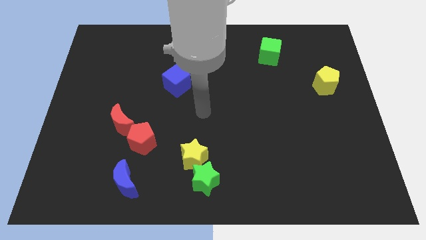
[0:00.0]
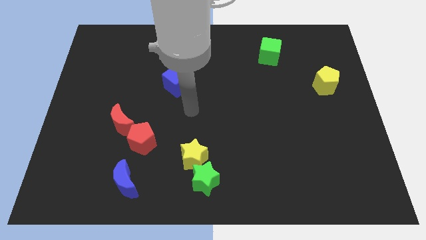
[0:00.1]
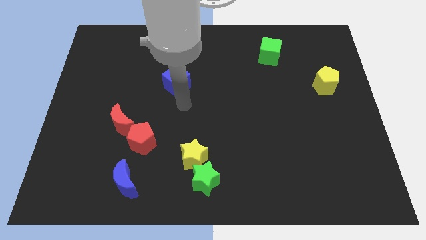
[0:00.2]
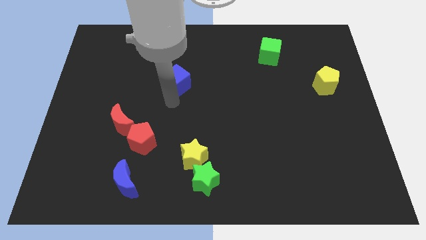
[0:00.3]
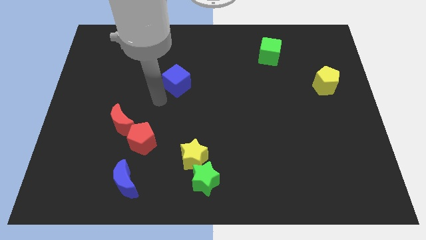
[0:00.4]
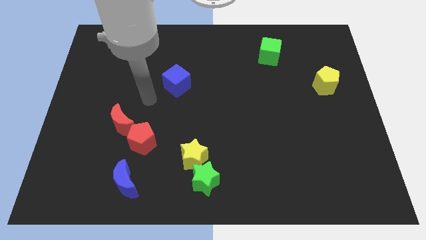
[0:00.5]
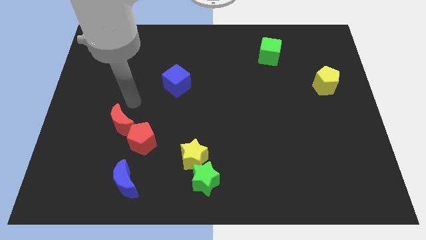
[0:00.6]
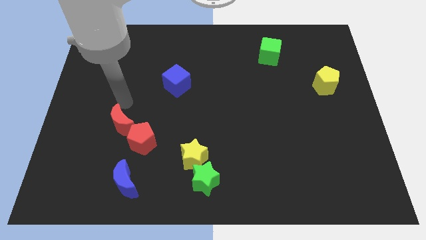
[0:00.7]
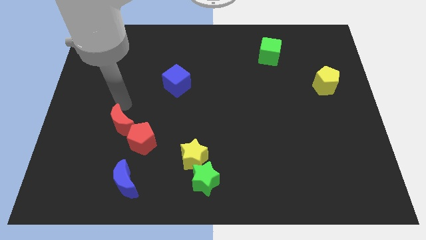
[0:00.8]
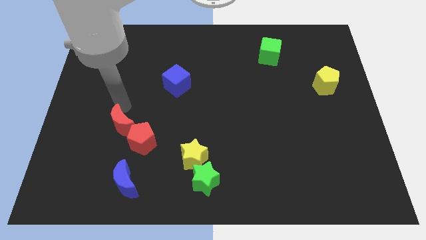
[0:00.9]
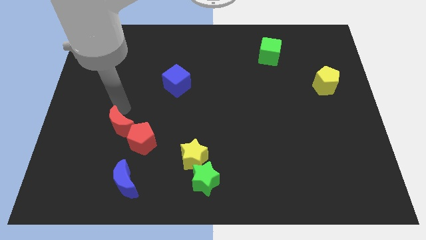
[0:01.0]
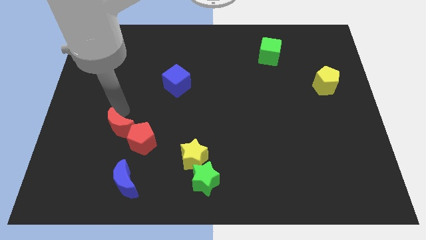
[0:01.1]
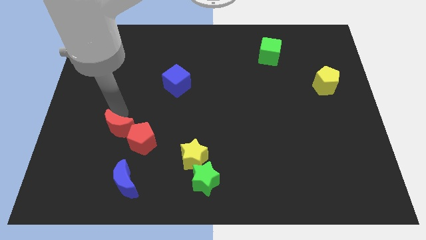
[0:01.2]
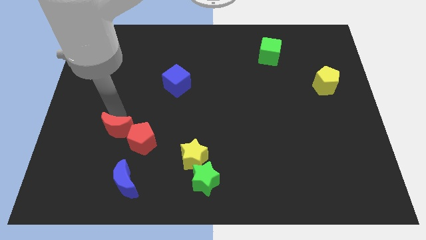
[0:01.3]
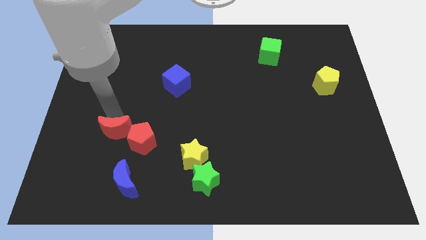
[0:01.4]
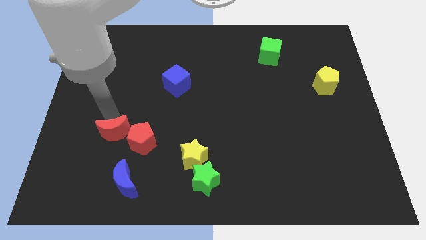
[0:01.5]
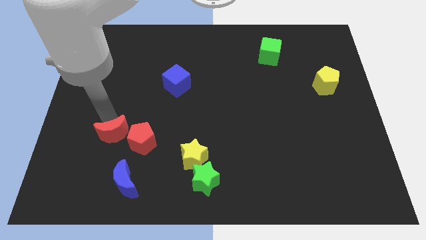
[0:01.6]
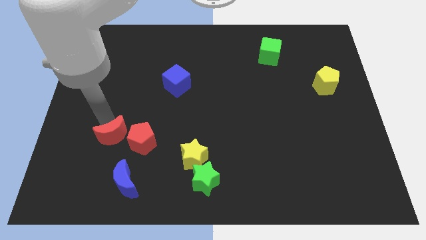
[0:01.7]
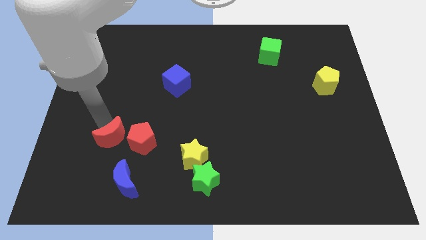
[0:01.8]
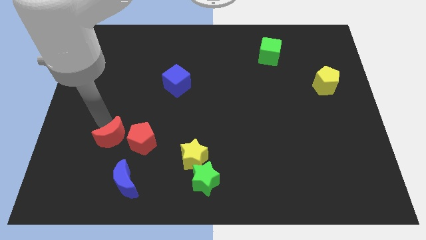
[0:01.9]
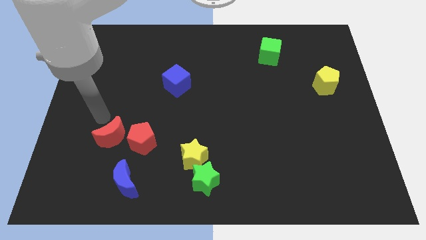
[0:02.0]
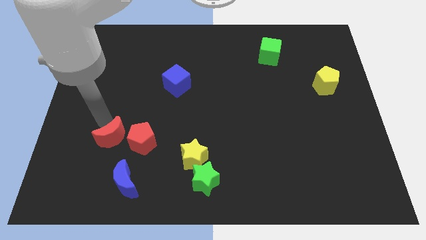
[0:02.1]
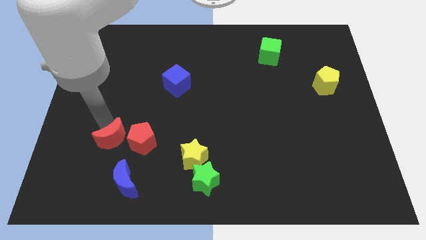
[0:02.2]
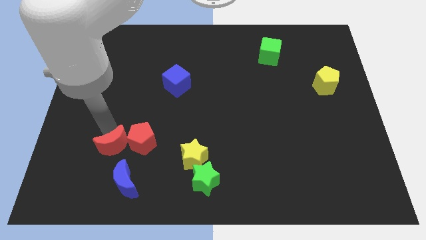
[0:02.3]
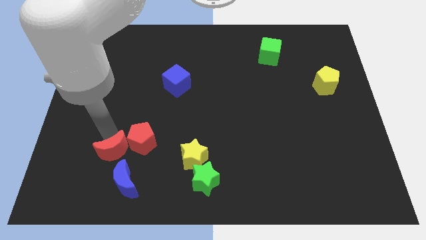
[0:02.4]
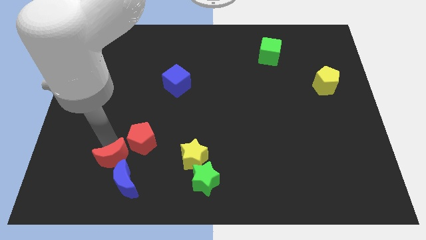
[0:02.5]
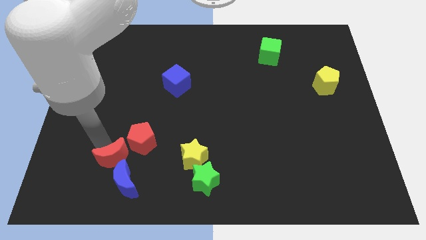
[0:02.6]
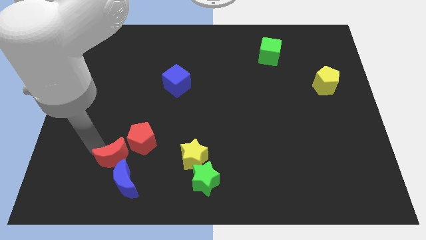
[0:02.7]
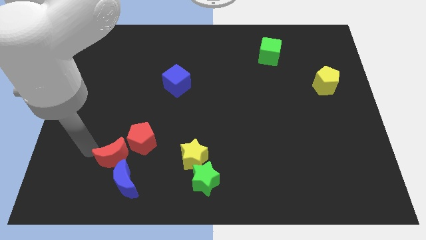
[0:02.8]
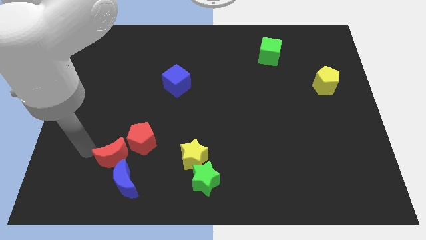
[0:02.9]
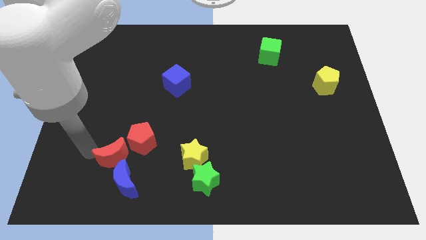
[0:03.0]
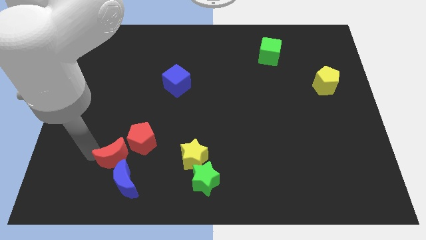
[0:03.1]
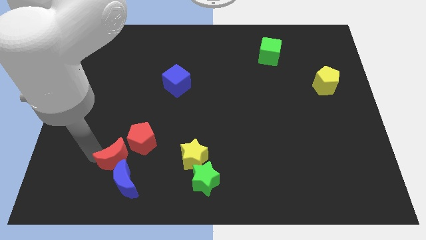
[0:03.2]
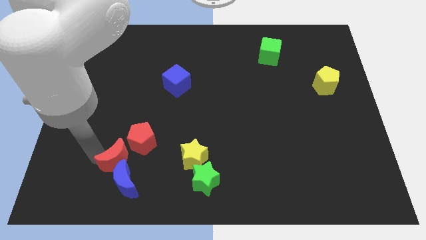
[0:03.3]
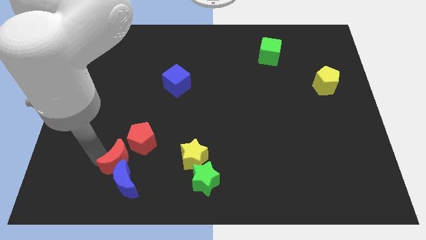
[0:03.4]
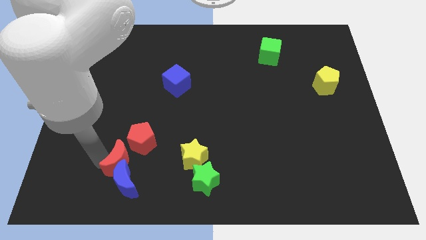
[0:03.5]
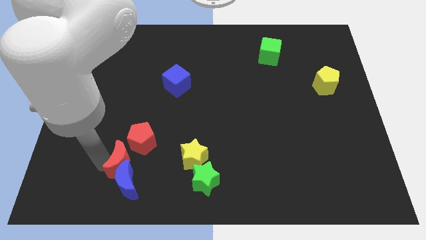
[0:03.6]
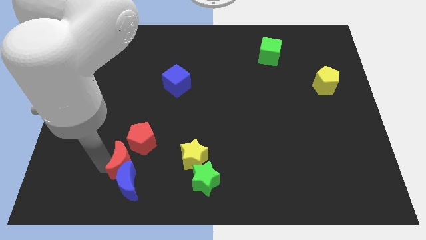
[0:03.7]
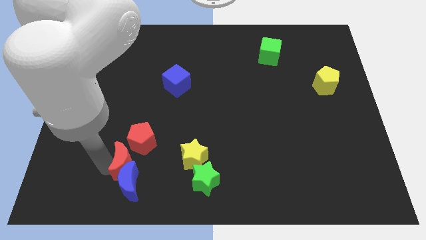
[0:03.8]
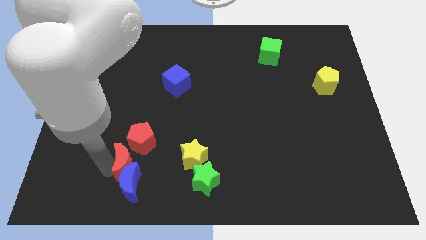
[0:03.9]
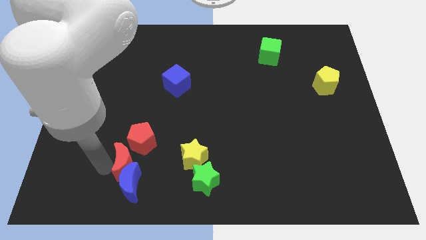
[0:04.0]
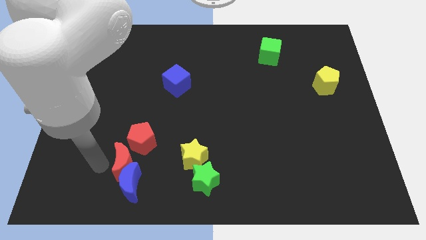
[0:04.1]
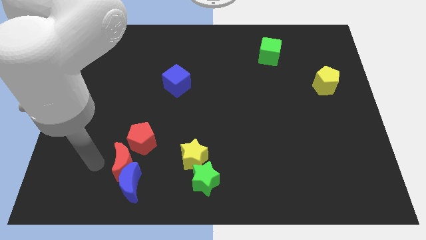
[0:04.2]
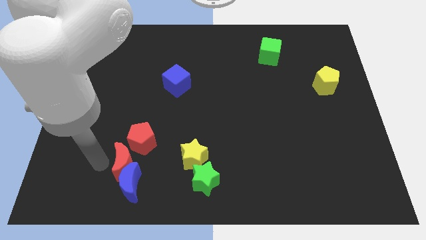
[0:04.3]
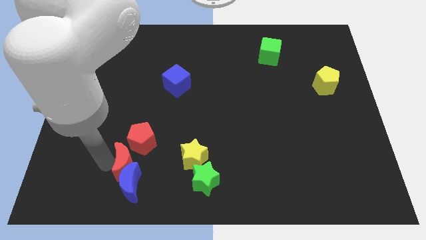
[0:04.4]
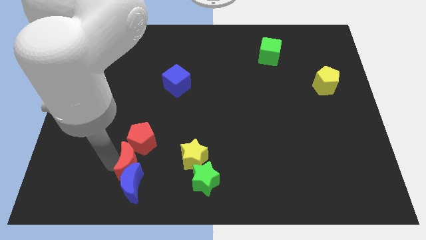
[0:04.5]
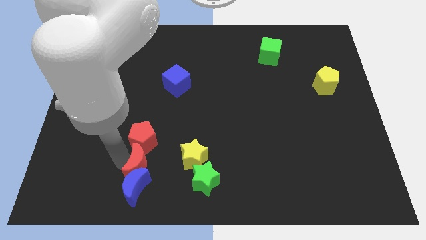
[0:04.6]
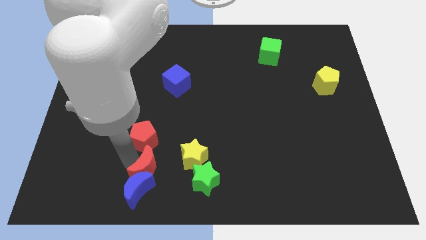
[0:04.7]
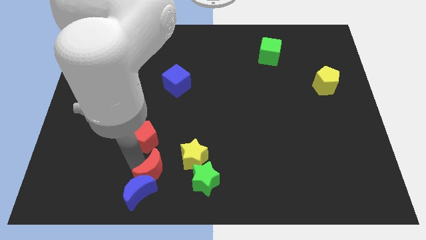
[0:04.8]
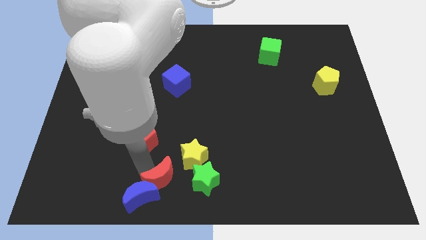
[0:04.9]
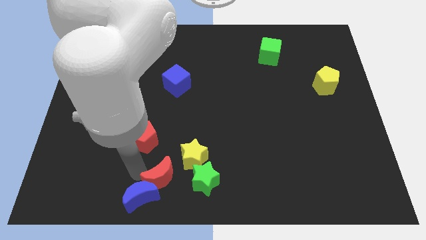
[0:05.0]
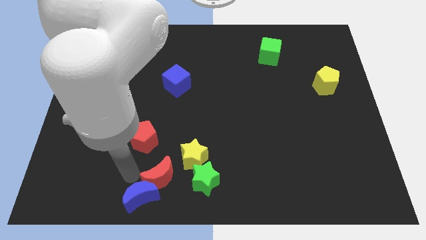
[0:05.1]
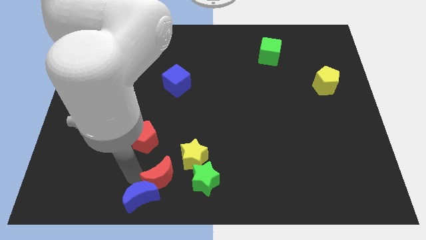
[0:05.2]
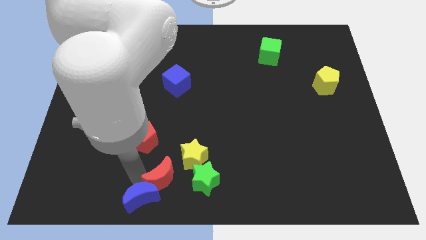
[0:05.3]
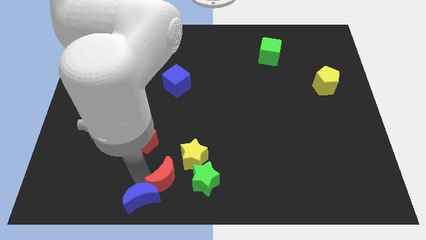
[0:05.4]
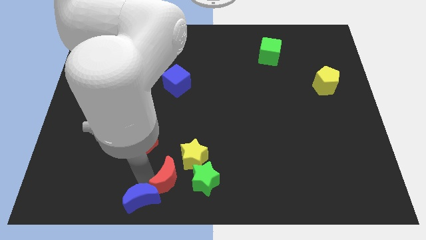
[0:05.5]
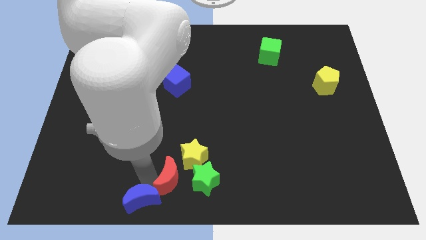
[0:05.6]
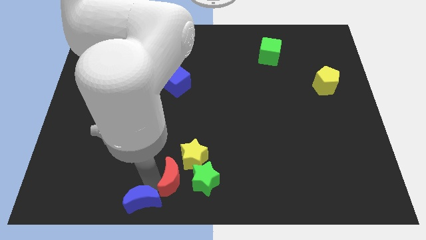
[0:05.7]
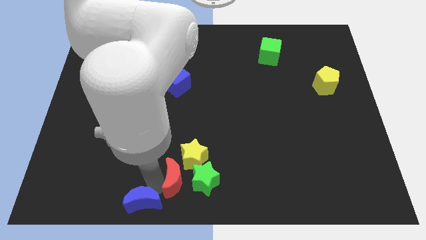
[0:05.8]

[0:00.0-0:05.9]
move the red moon towards the green star

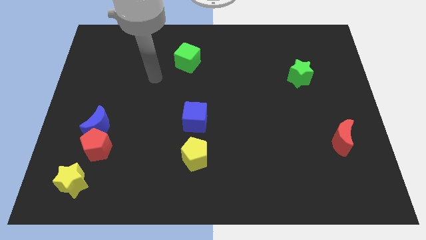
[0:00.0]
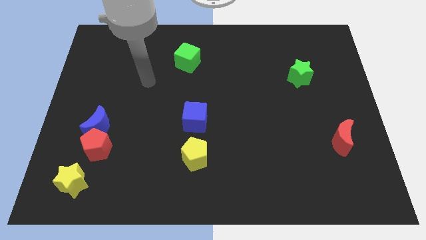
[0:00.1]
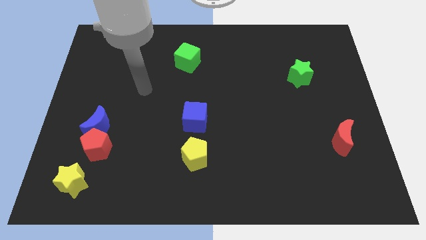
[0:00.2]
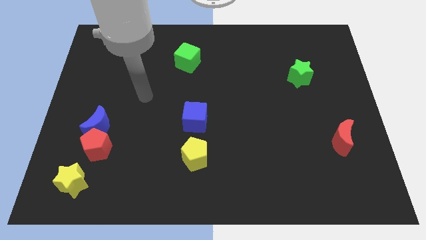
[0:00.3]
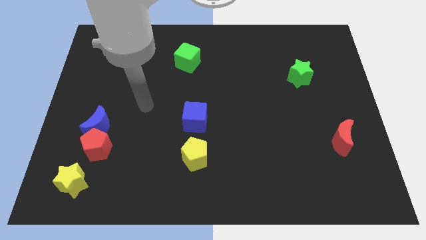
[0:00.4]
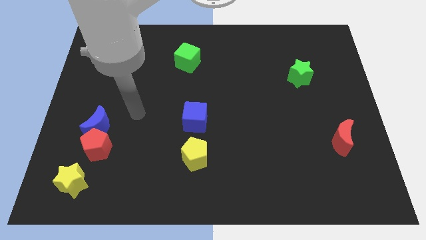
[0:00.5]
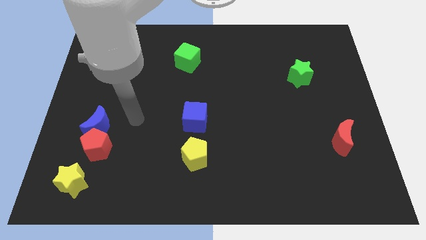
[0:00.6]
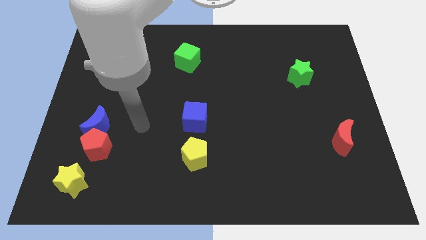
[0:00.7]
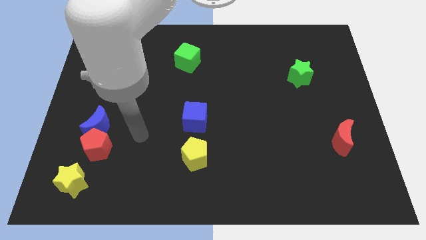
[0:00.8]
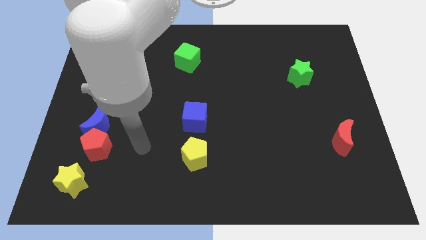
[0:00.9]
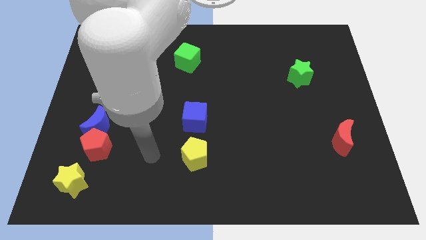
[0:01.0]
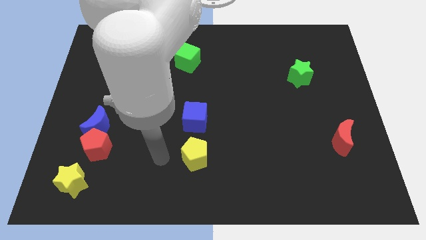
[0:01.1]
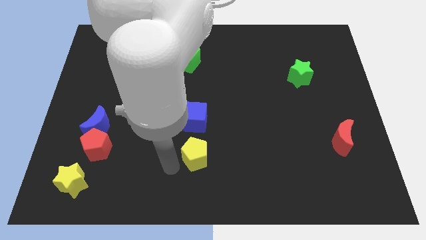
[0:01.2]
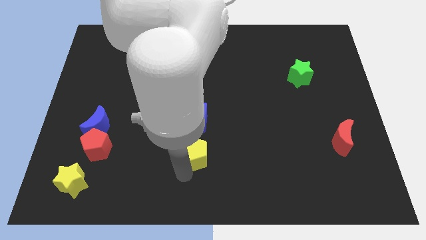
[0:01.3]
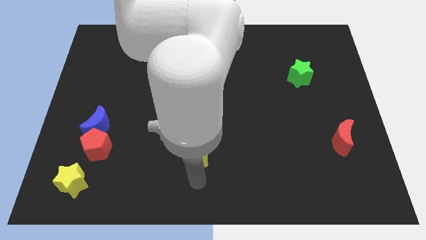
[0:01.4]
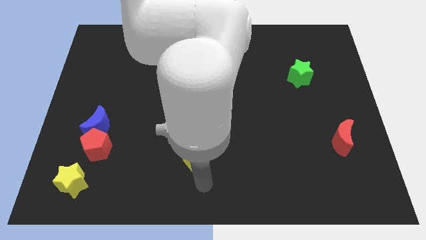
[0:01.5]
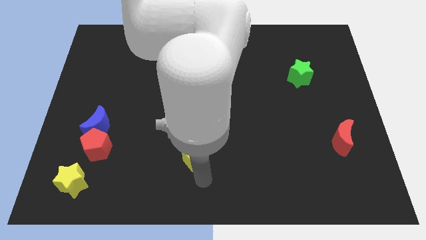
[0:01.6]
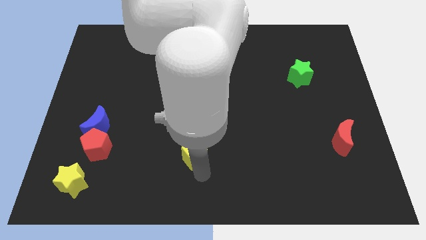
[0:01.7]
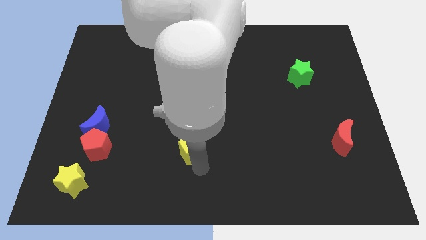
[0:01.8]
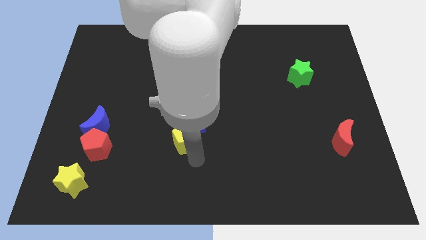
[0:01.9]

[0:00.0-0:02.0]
put the yellow pentagon next to the blue cube
